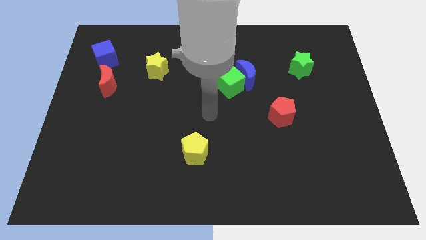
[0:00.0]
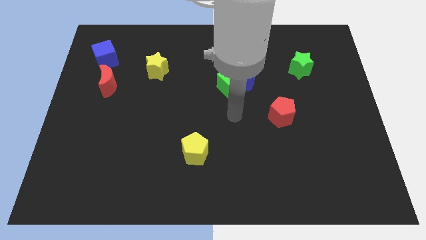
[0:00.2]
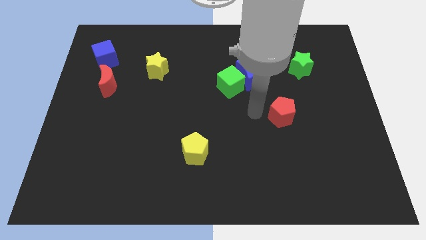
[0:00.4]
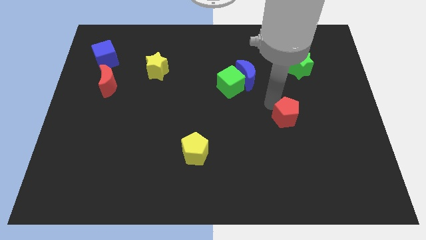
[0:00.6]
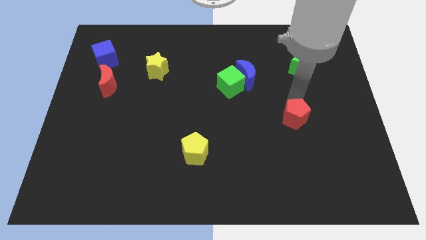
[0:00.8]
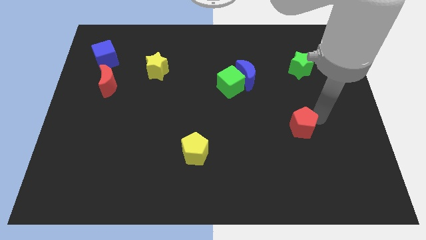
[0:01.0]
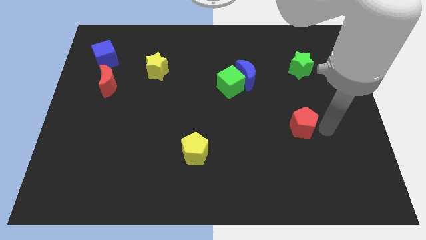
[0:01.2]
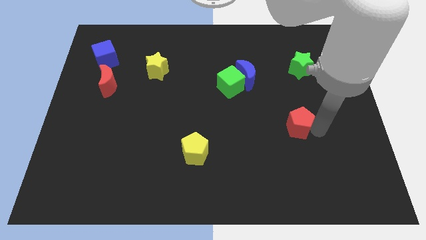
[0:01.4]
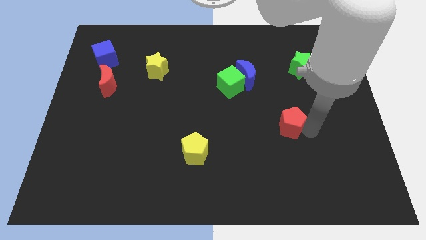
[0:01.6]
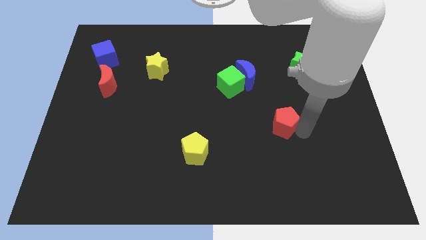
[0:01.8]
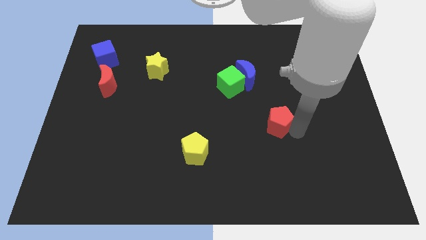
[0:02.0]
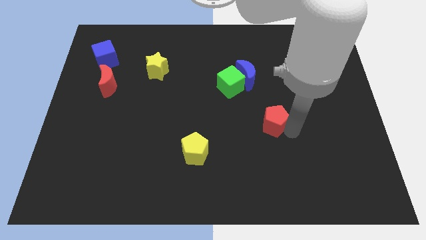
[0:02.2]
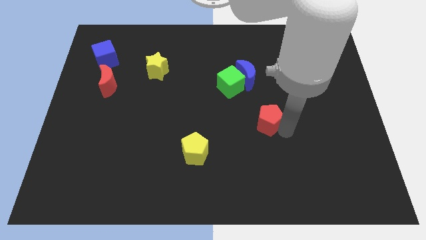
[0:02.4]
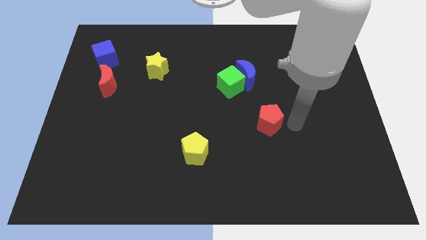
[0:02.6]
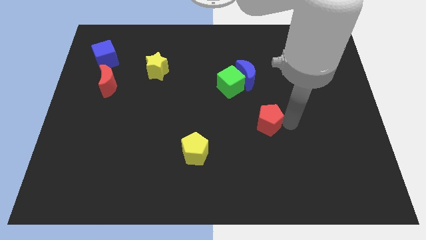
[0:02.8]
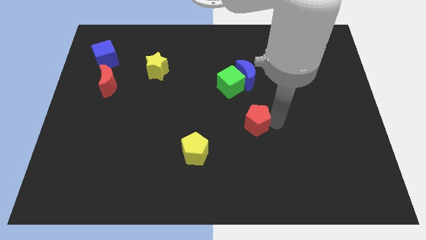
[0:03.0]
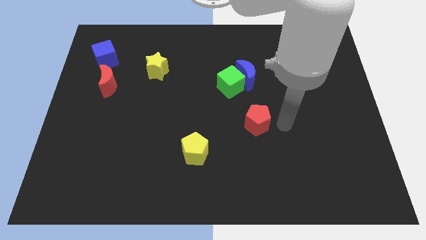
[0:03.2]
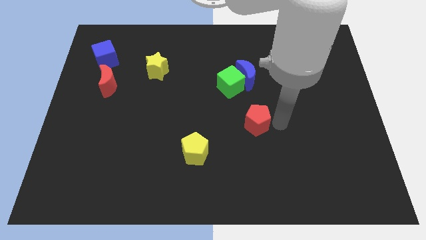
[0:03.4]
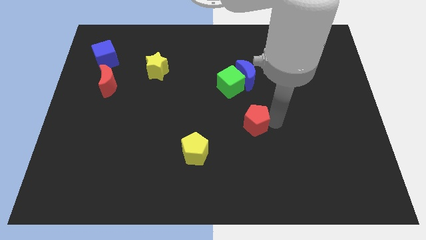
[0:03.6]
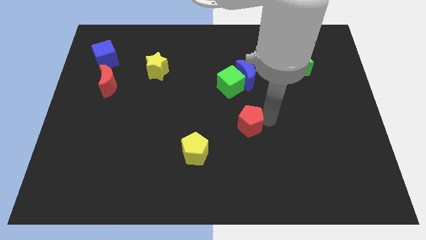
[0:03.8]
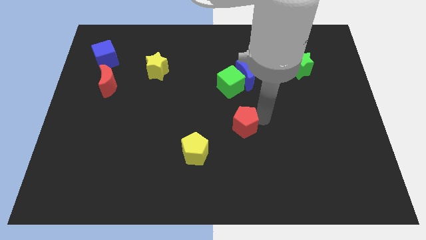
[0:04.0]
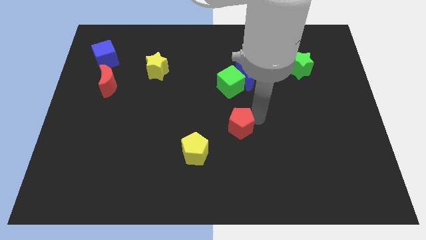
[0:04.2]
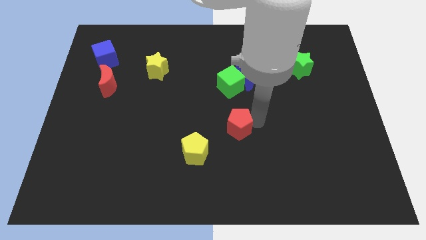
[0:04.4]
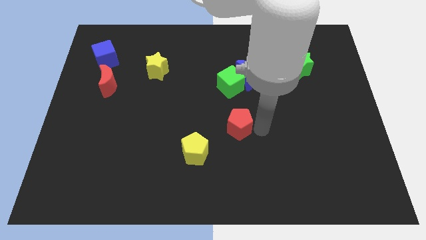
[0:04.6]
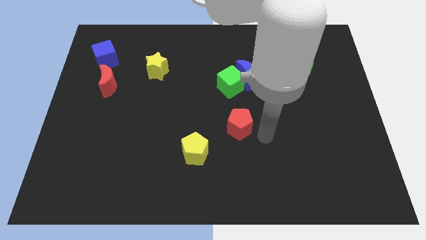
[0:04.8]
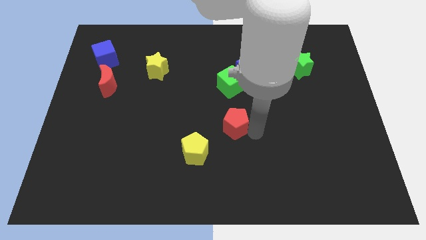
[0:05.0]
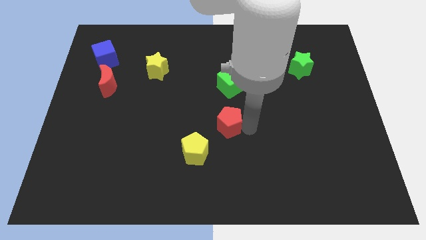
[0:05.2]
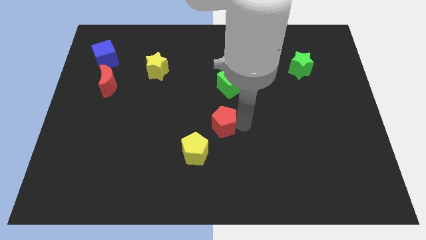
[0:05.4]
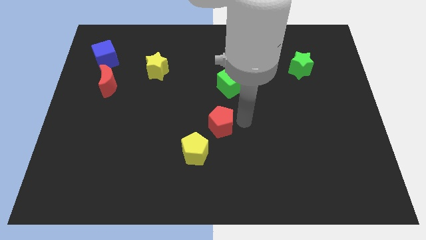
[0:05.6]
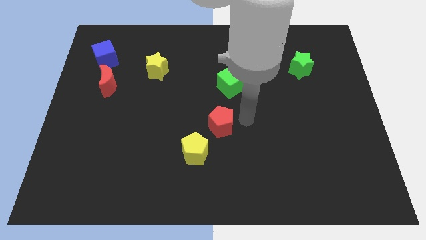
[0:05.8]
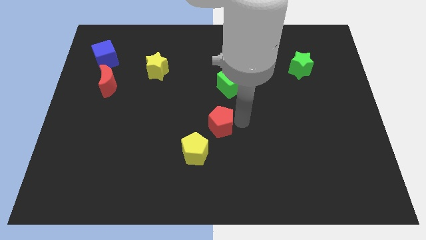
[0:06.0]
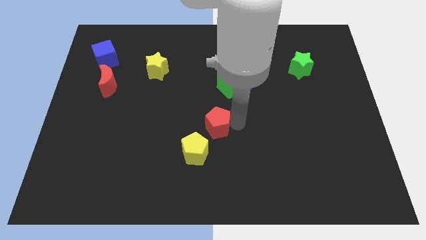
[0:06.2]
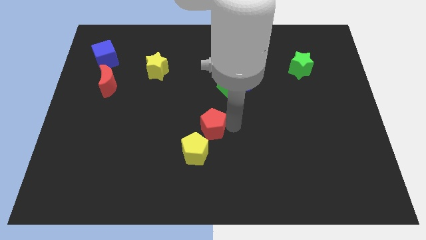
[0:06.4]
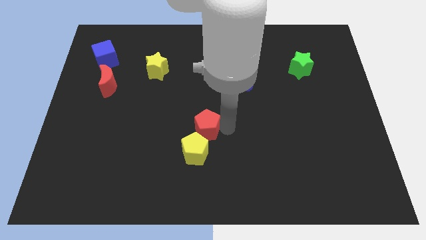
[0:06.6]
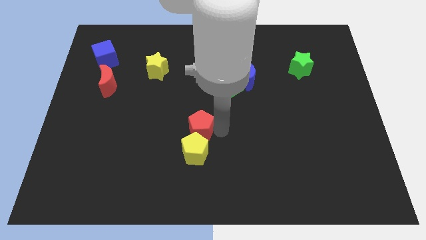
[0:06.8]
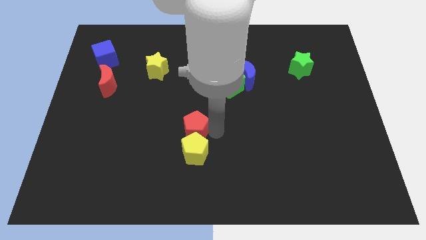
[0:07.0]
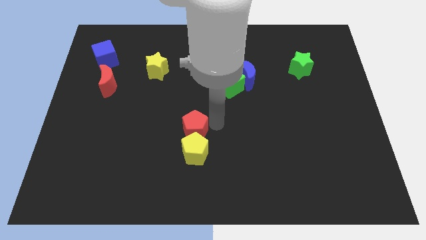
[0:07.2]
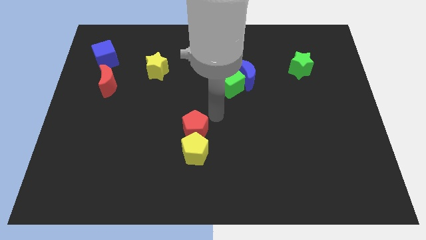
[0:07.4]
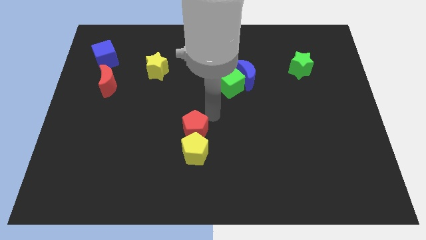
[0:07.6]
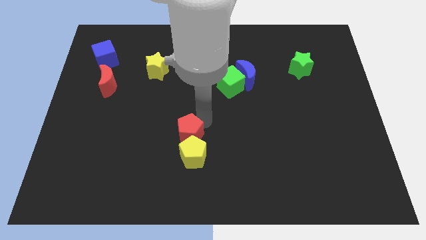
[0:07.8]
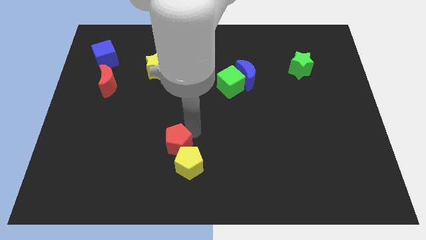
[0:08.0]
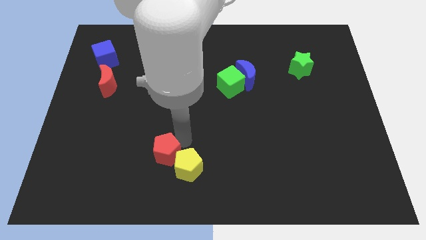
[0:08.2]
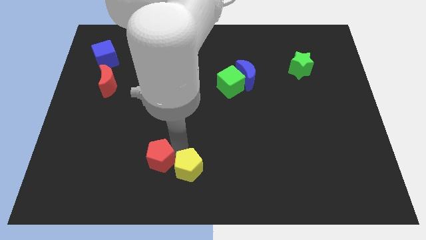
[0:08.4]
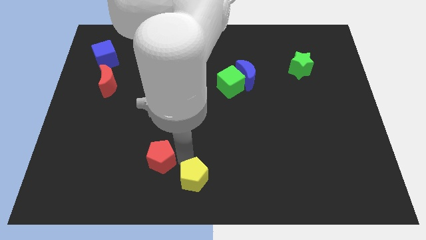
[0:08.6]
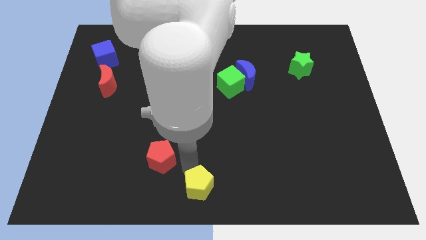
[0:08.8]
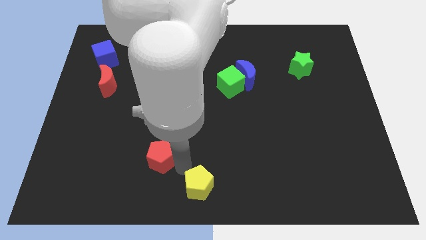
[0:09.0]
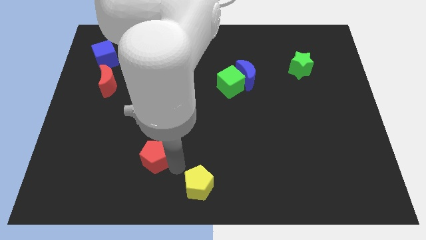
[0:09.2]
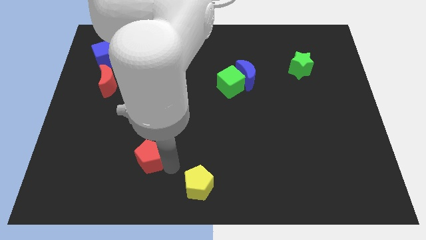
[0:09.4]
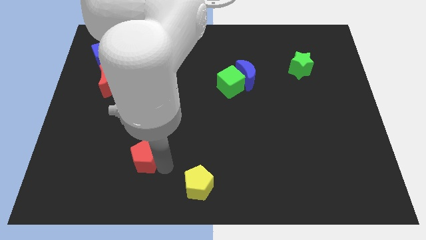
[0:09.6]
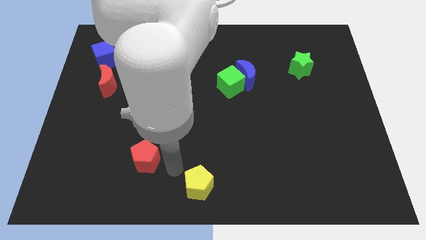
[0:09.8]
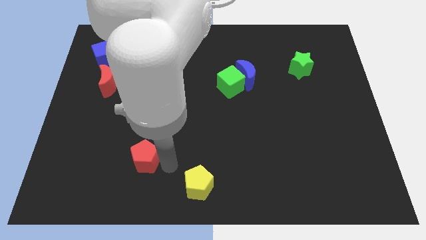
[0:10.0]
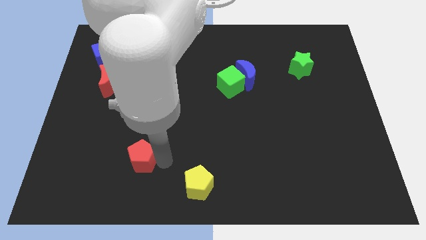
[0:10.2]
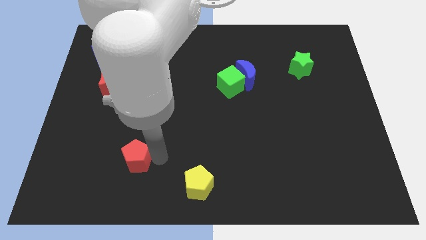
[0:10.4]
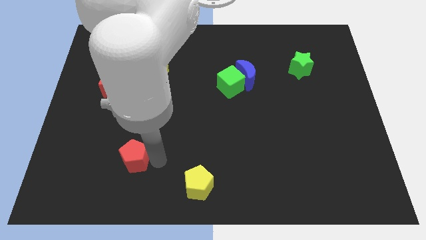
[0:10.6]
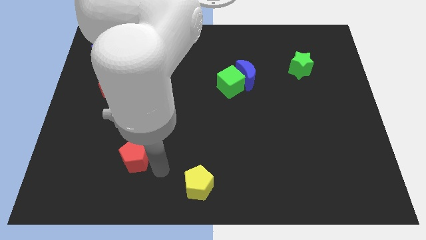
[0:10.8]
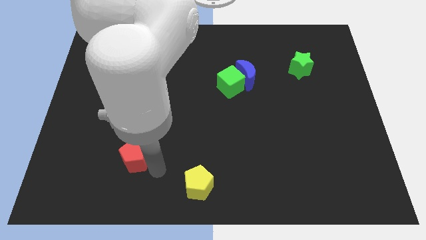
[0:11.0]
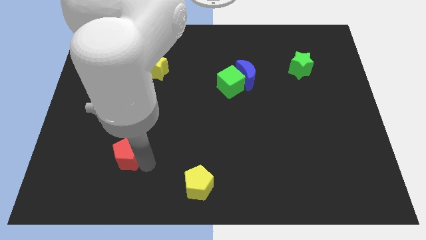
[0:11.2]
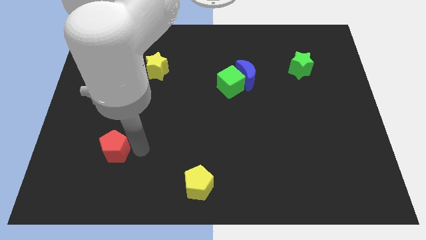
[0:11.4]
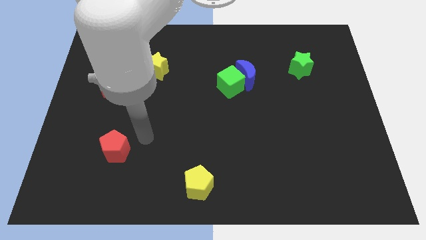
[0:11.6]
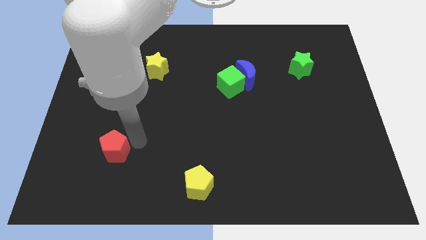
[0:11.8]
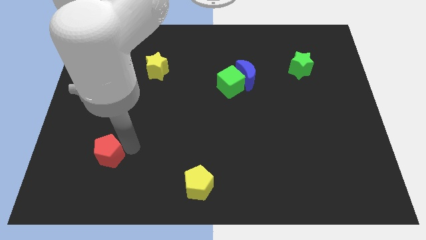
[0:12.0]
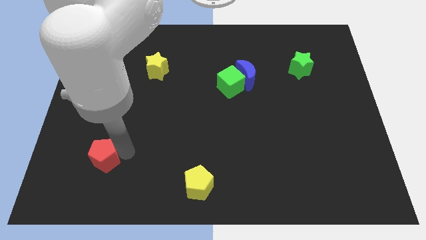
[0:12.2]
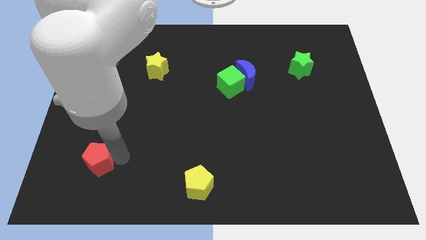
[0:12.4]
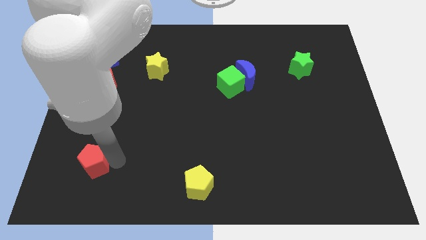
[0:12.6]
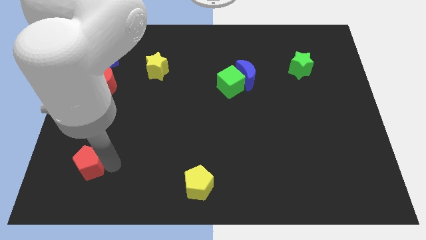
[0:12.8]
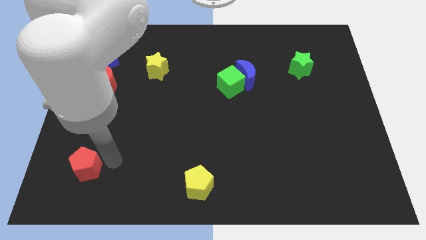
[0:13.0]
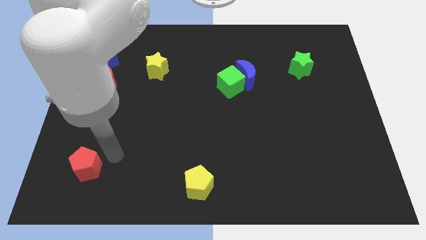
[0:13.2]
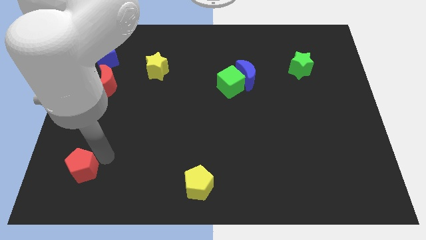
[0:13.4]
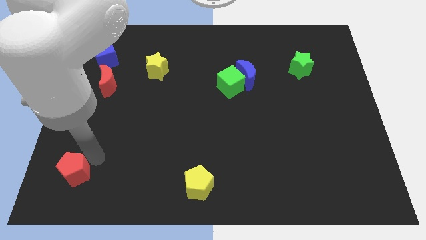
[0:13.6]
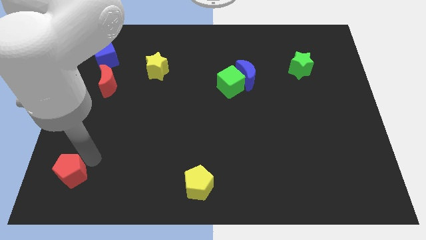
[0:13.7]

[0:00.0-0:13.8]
put the red pentagon to the bottom left corner
